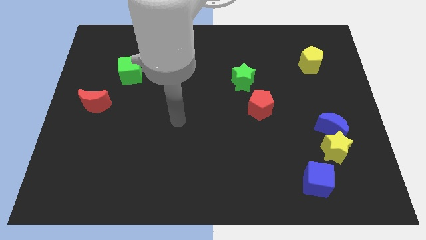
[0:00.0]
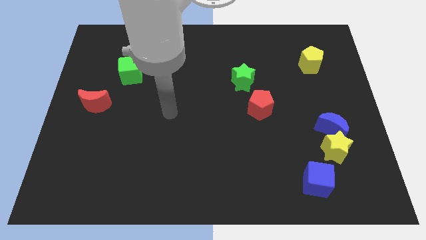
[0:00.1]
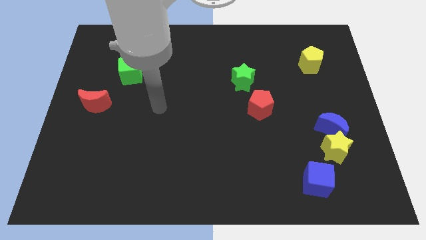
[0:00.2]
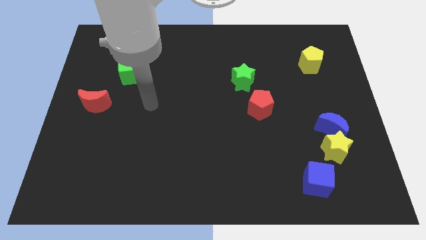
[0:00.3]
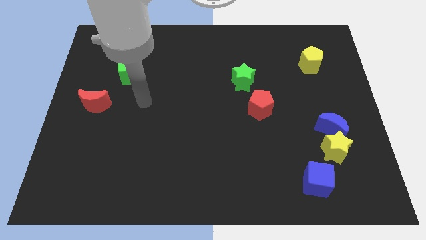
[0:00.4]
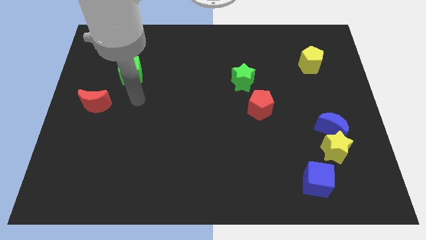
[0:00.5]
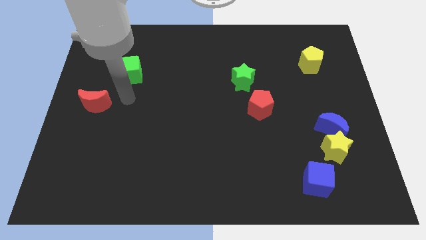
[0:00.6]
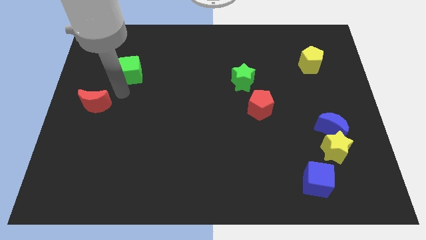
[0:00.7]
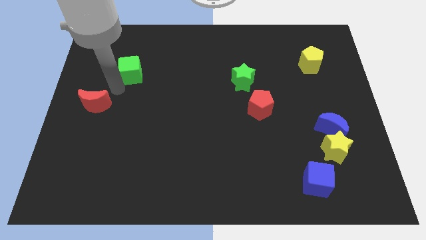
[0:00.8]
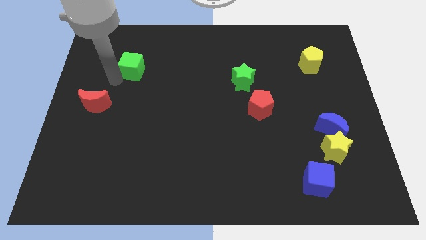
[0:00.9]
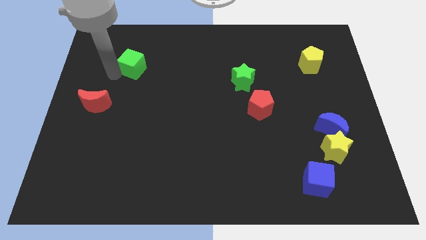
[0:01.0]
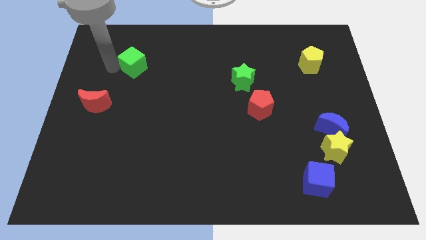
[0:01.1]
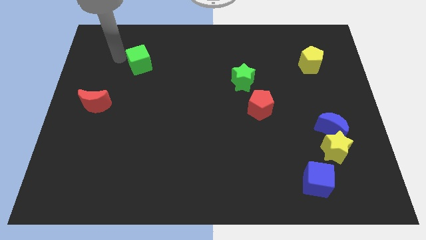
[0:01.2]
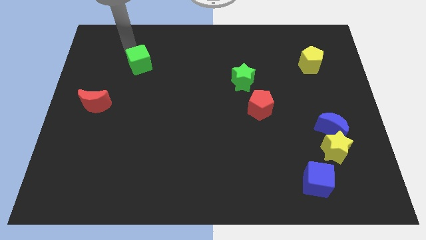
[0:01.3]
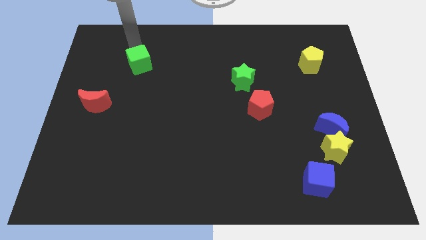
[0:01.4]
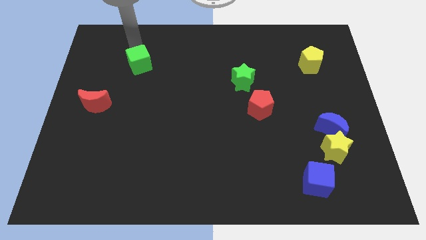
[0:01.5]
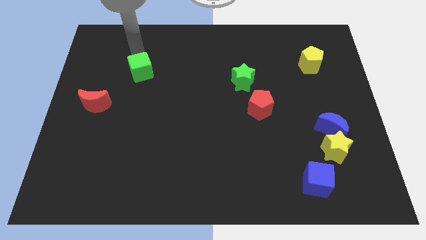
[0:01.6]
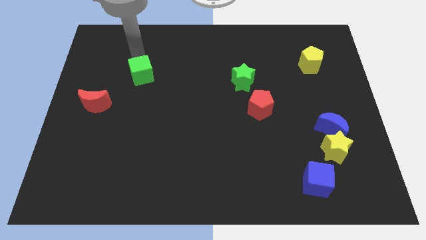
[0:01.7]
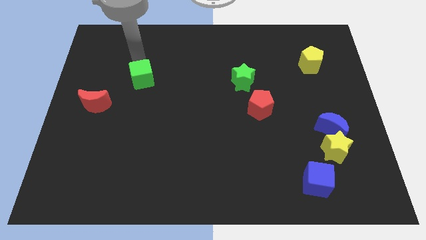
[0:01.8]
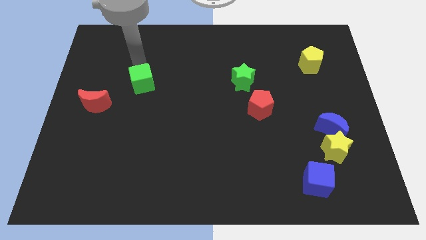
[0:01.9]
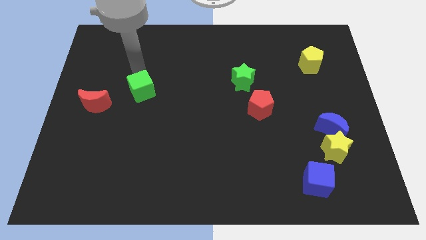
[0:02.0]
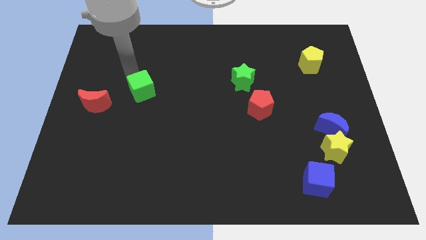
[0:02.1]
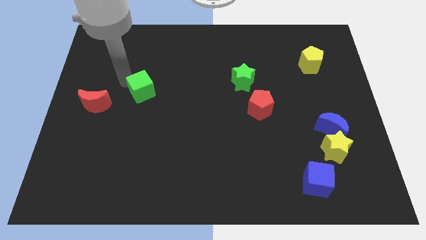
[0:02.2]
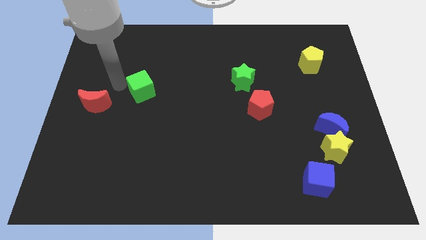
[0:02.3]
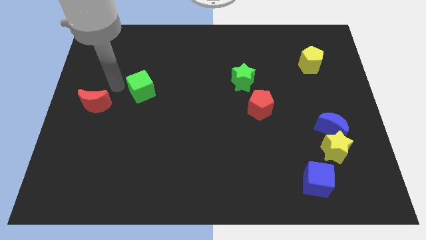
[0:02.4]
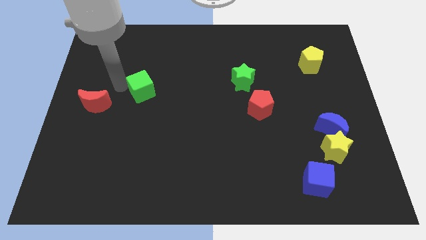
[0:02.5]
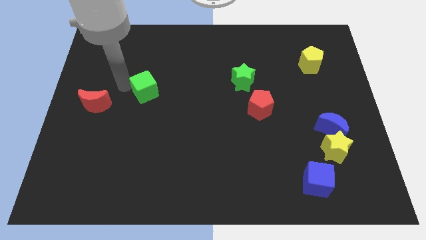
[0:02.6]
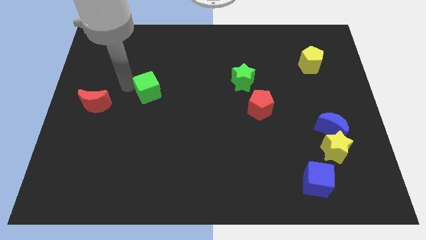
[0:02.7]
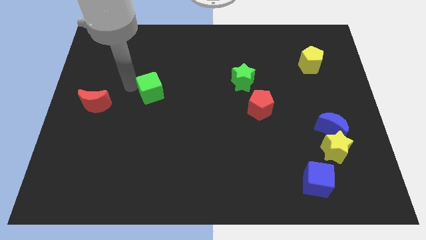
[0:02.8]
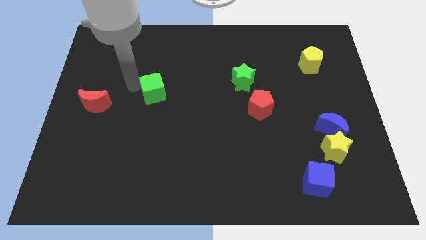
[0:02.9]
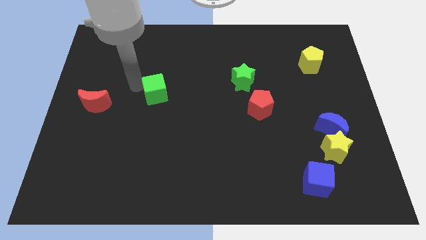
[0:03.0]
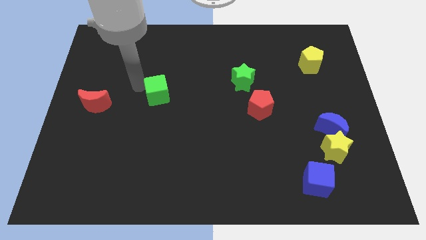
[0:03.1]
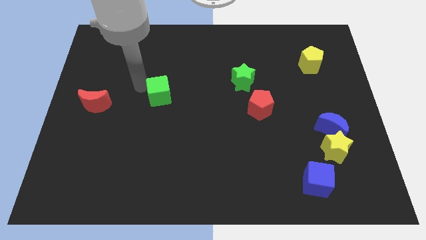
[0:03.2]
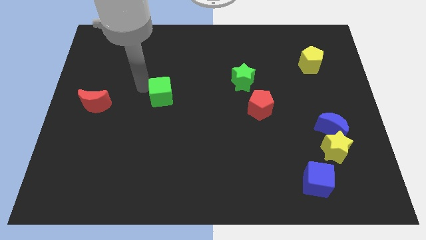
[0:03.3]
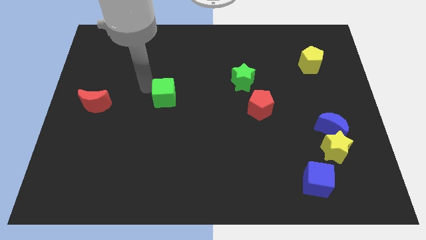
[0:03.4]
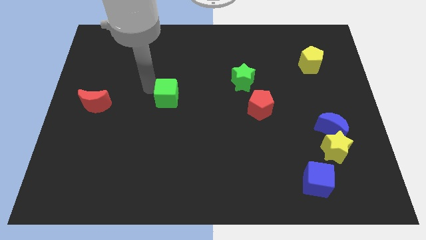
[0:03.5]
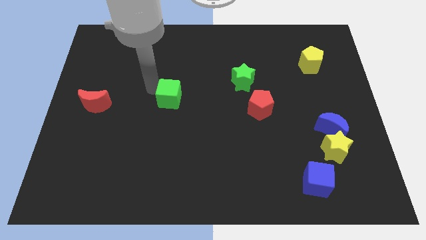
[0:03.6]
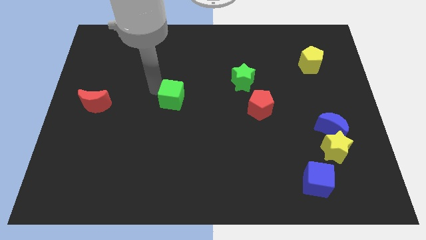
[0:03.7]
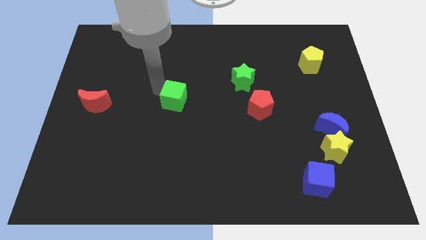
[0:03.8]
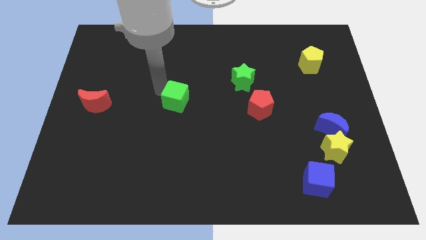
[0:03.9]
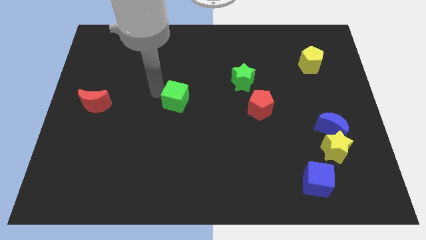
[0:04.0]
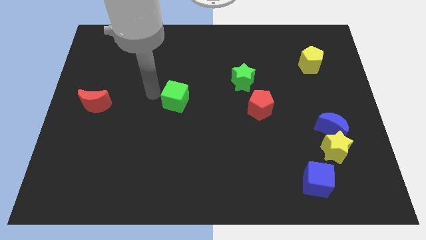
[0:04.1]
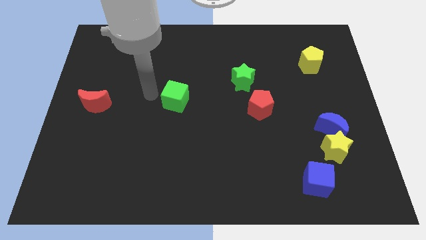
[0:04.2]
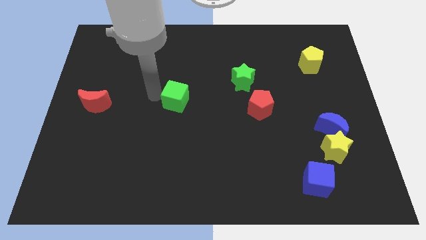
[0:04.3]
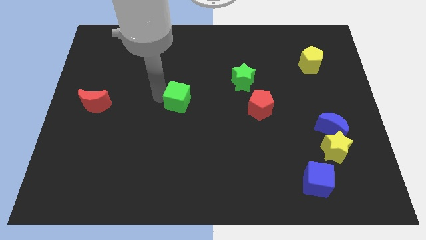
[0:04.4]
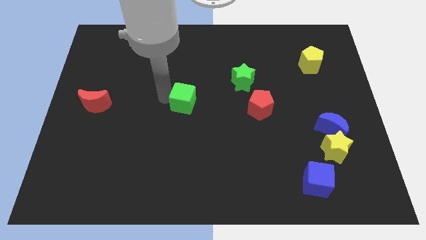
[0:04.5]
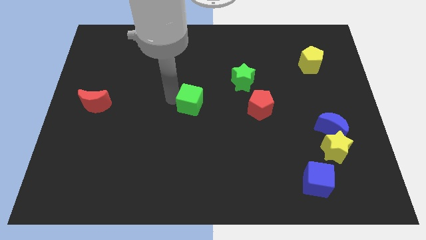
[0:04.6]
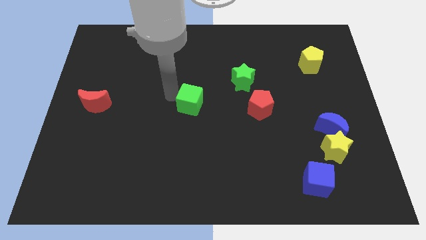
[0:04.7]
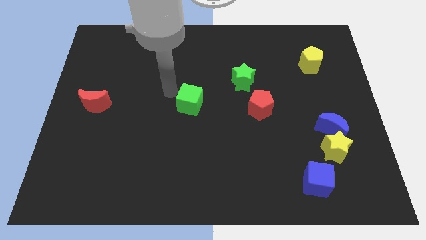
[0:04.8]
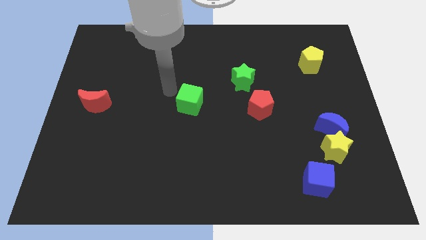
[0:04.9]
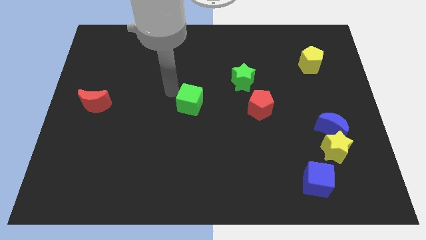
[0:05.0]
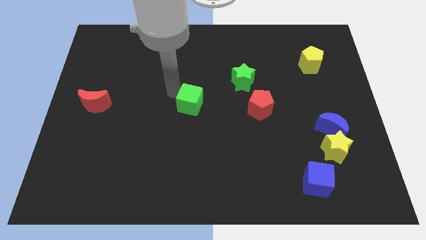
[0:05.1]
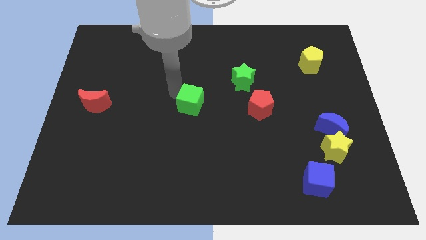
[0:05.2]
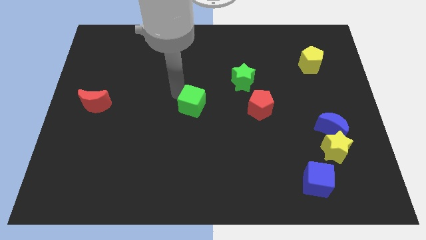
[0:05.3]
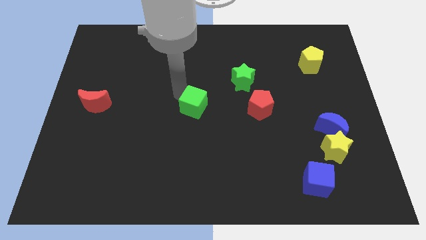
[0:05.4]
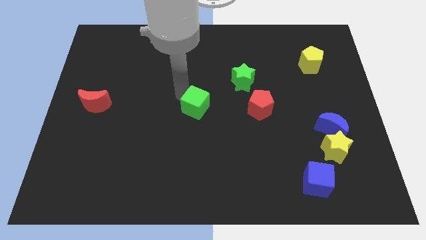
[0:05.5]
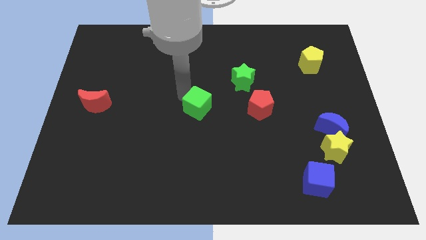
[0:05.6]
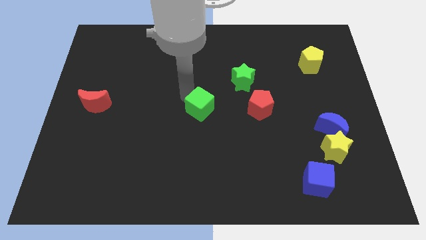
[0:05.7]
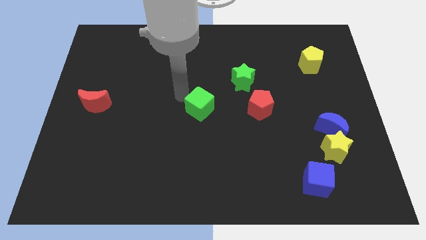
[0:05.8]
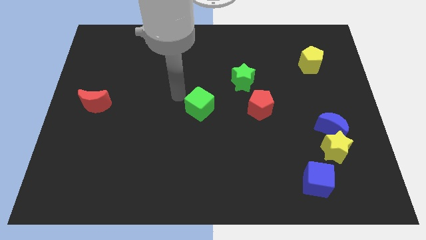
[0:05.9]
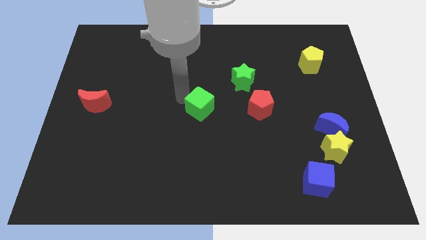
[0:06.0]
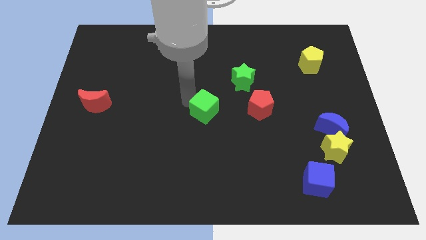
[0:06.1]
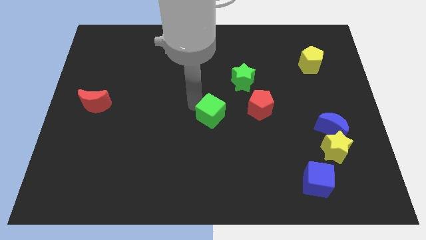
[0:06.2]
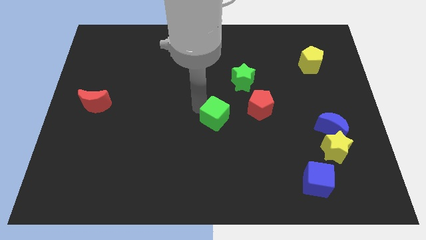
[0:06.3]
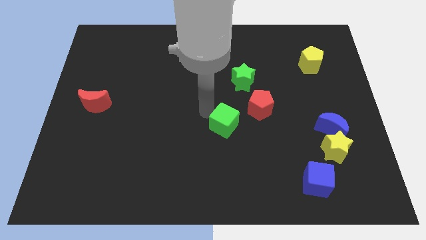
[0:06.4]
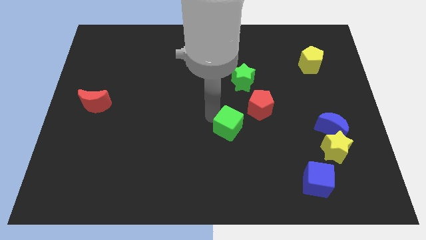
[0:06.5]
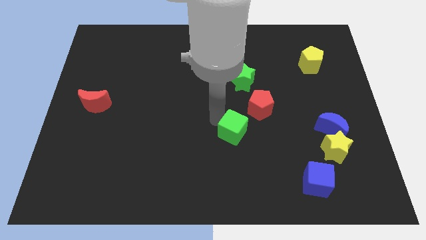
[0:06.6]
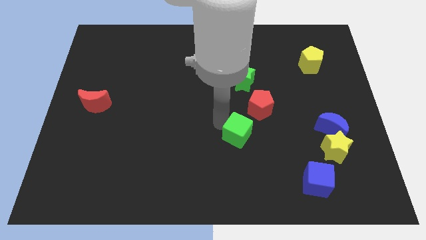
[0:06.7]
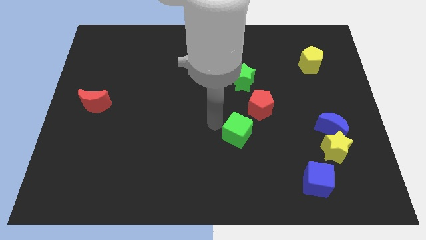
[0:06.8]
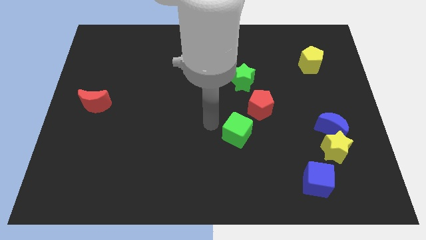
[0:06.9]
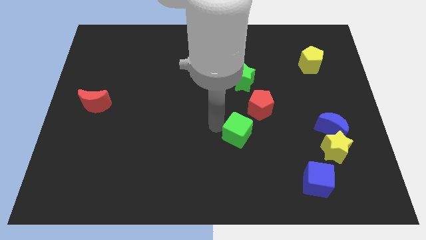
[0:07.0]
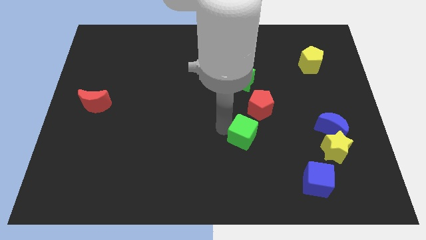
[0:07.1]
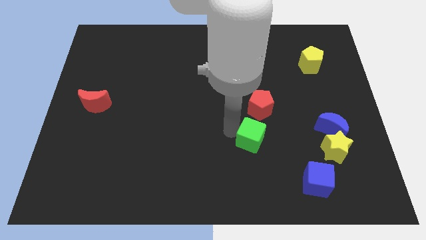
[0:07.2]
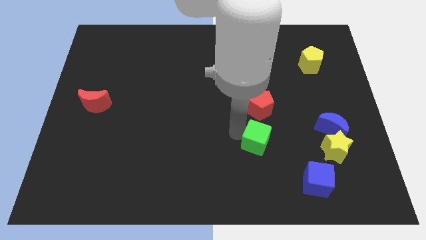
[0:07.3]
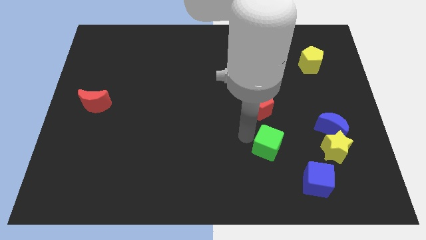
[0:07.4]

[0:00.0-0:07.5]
put the green cube diagonally up and to the left of the blue cube

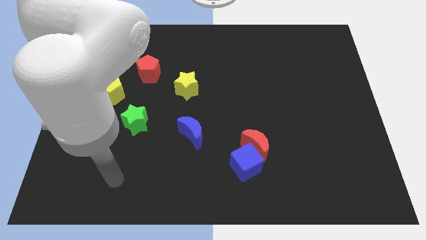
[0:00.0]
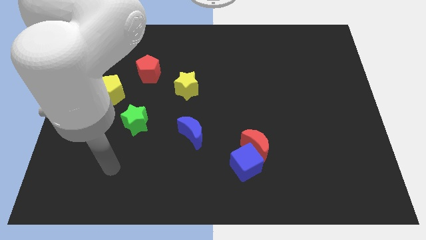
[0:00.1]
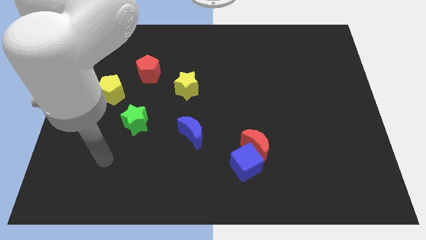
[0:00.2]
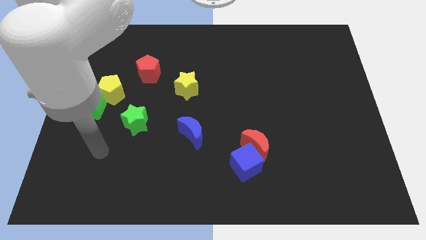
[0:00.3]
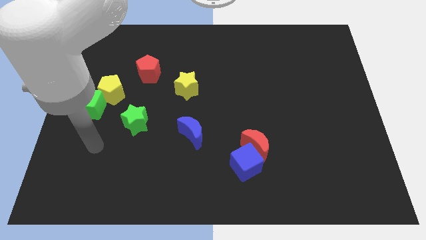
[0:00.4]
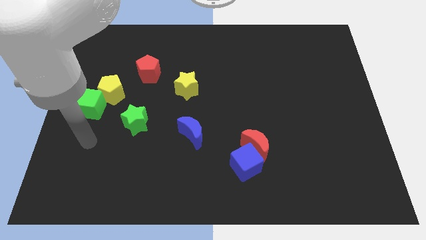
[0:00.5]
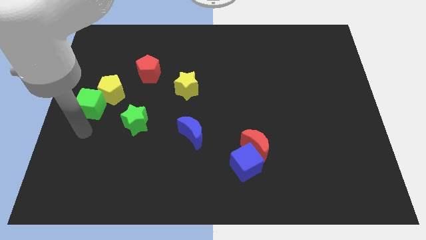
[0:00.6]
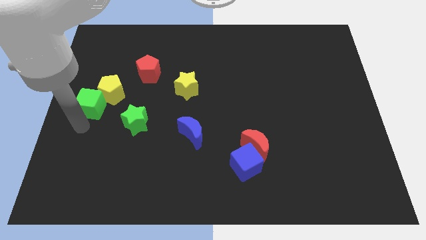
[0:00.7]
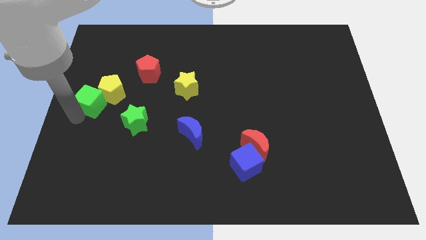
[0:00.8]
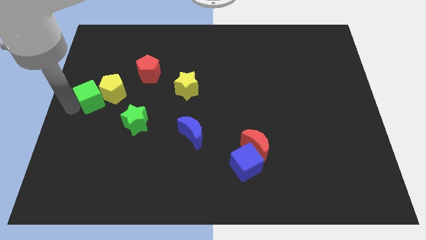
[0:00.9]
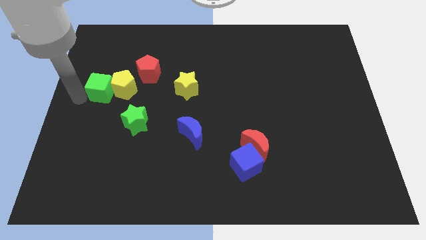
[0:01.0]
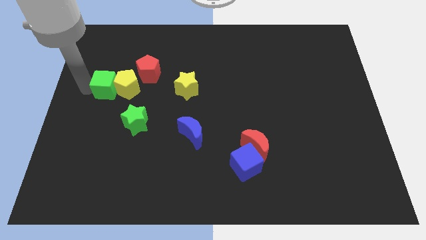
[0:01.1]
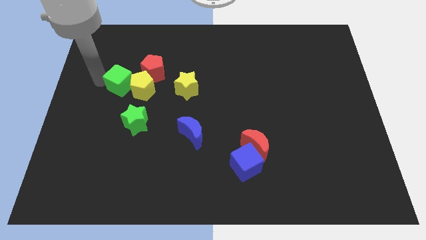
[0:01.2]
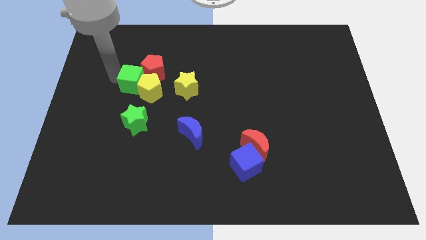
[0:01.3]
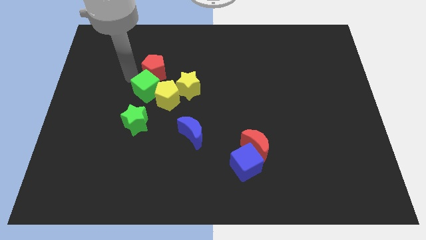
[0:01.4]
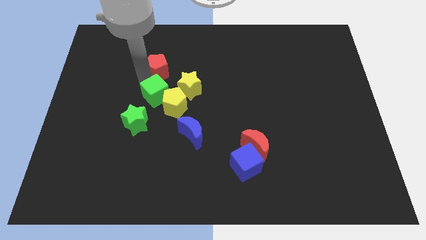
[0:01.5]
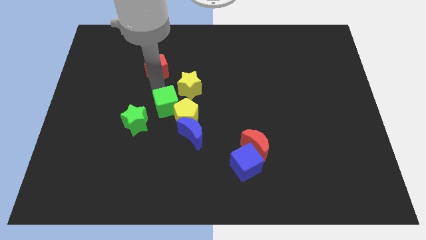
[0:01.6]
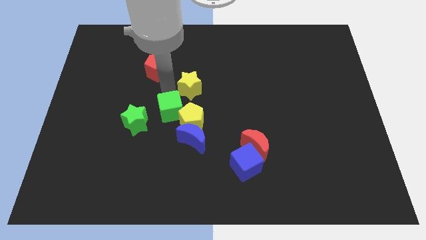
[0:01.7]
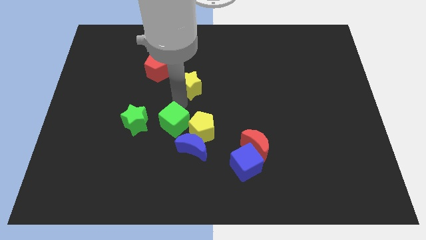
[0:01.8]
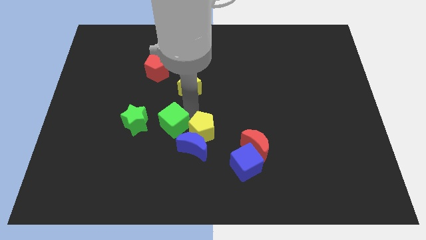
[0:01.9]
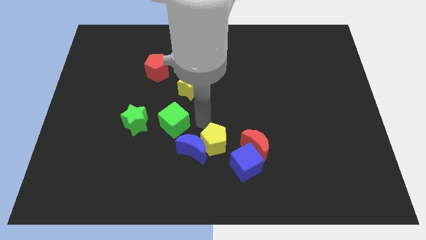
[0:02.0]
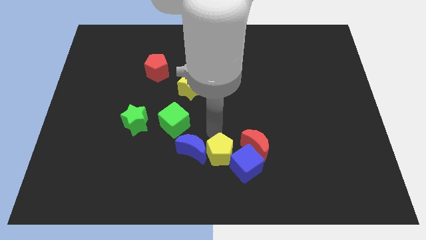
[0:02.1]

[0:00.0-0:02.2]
slide the yellow pentagon diagonally down and to the left of the red moon
